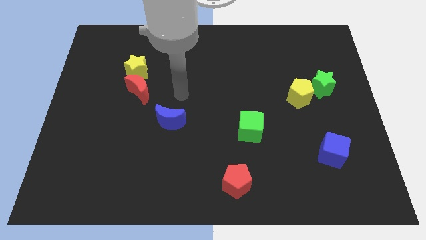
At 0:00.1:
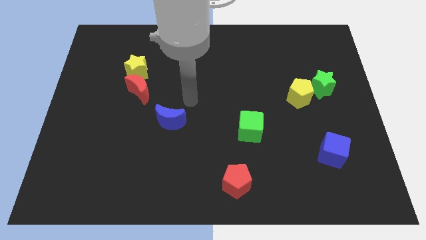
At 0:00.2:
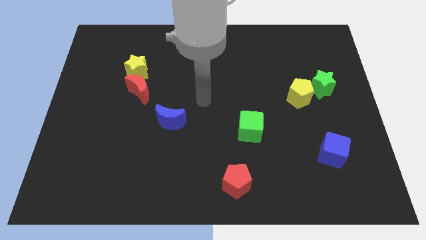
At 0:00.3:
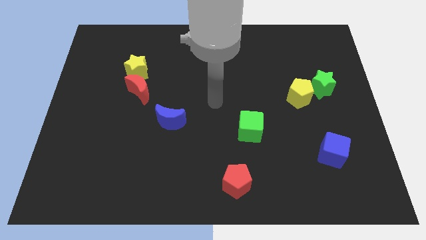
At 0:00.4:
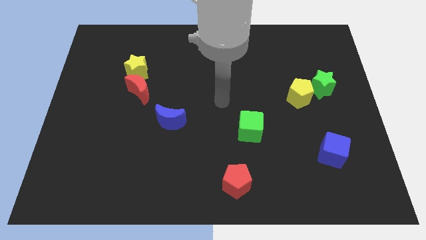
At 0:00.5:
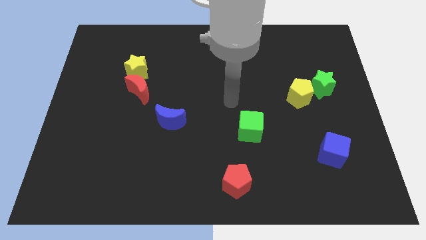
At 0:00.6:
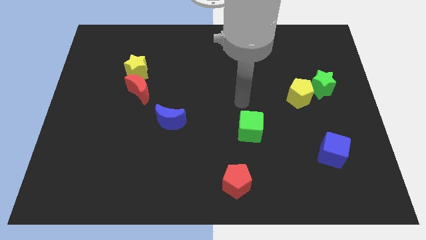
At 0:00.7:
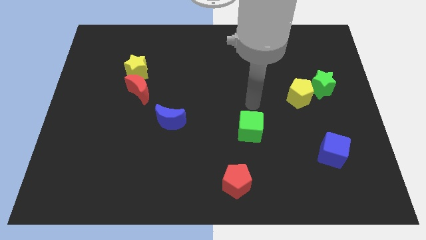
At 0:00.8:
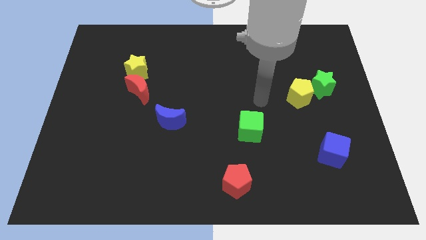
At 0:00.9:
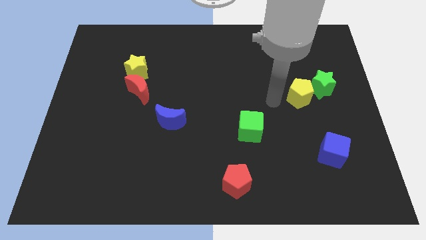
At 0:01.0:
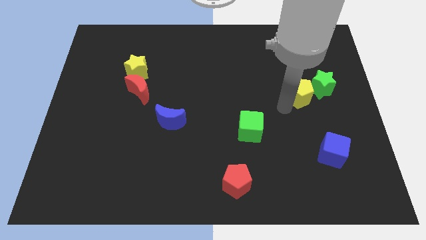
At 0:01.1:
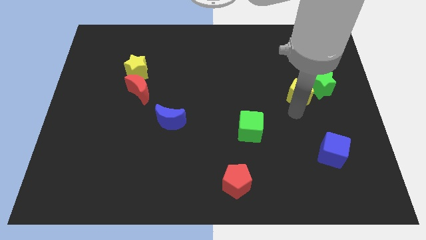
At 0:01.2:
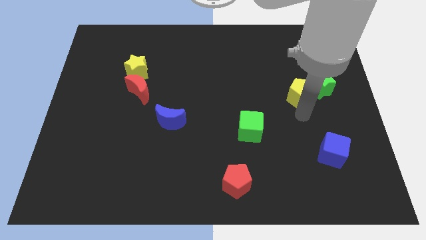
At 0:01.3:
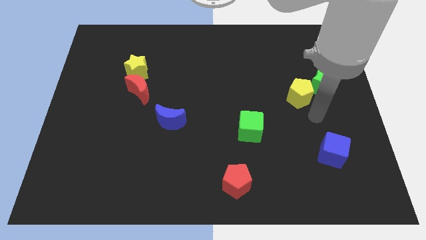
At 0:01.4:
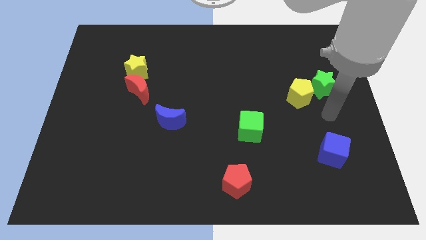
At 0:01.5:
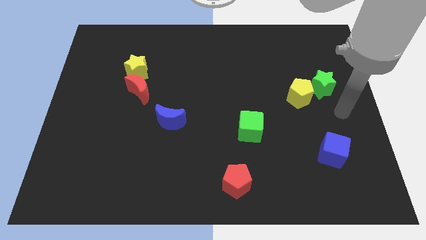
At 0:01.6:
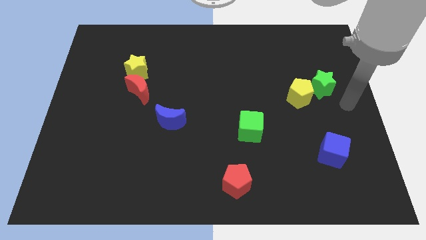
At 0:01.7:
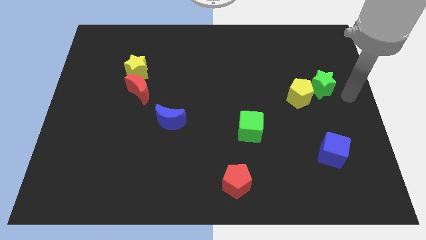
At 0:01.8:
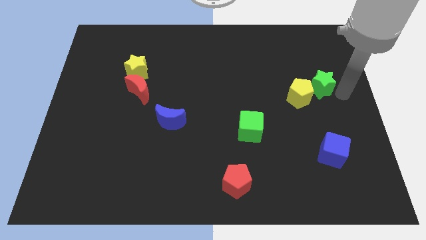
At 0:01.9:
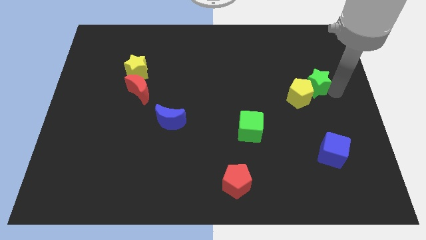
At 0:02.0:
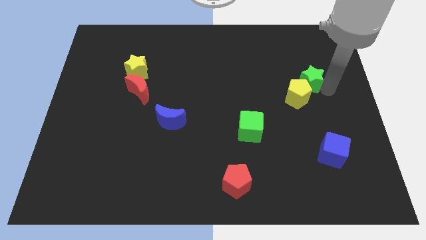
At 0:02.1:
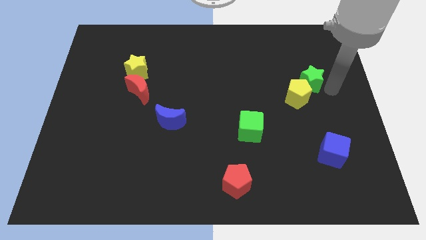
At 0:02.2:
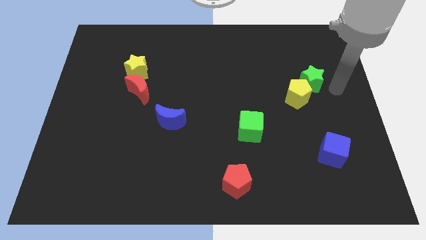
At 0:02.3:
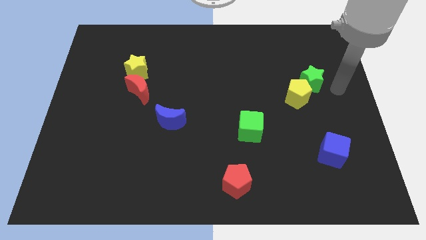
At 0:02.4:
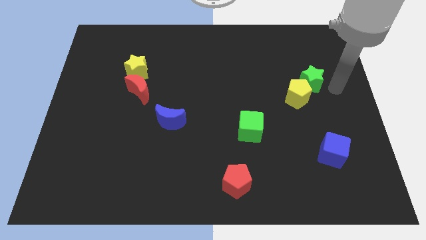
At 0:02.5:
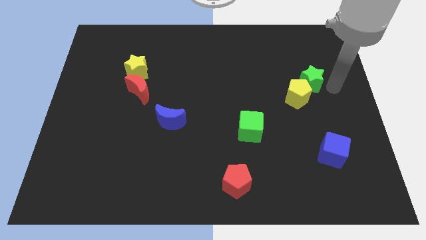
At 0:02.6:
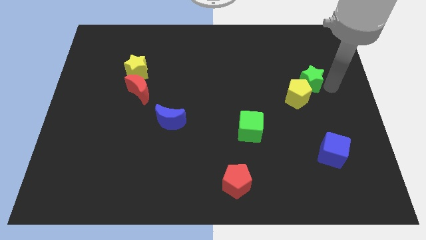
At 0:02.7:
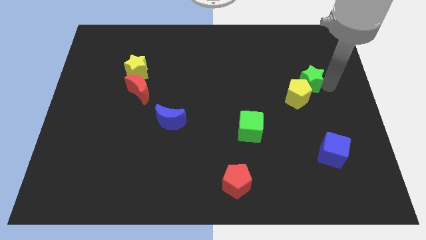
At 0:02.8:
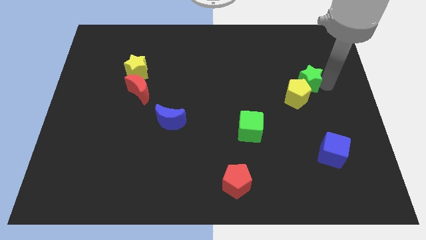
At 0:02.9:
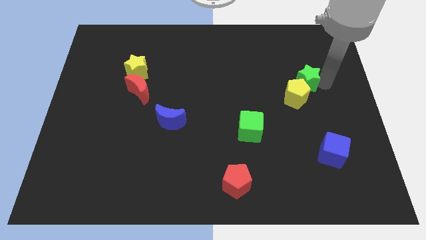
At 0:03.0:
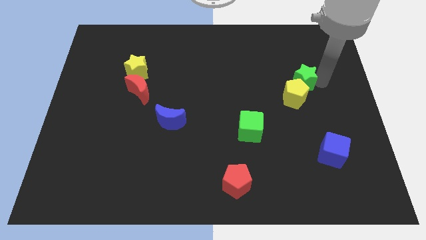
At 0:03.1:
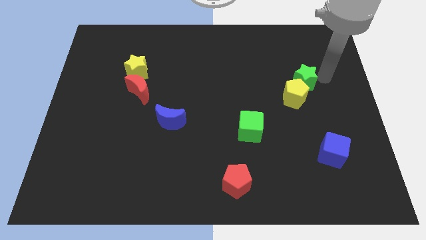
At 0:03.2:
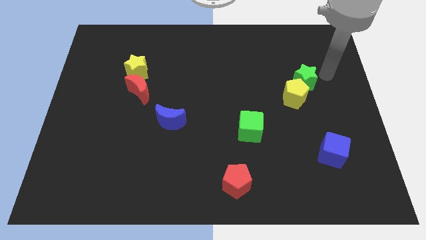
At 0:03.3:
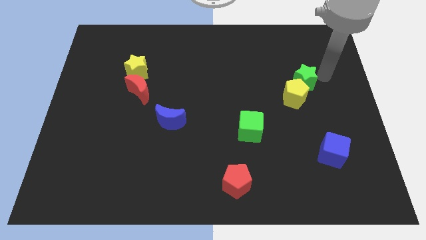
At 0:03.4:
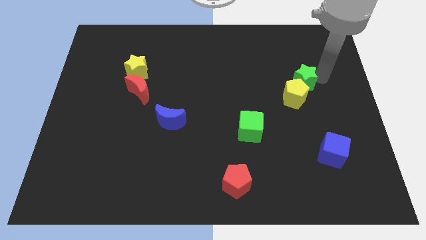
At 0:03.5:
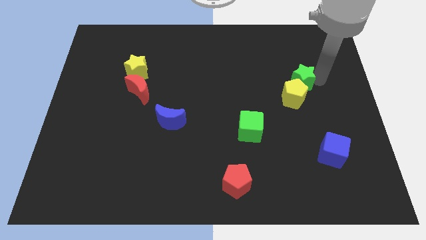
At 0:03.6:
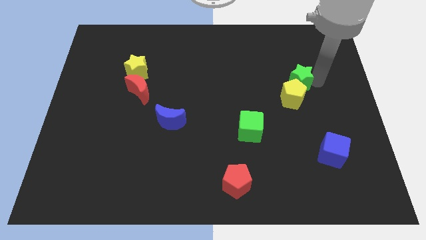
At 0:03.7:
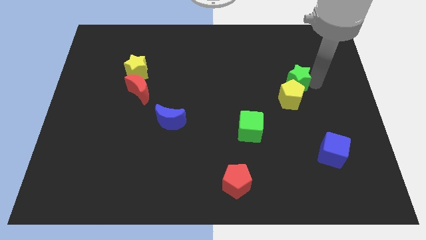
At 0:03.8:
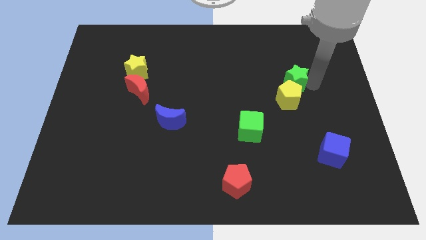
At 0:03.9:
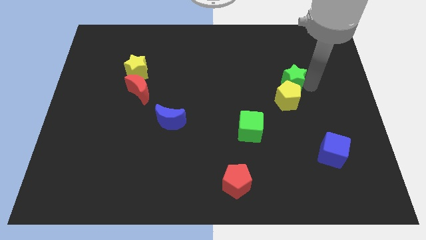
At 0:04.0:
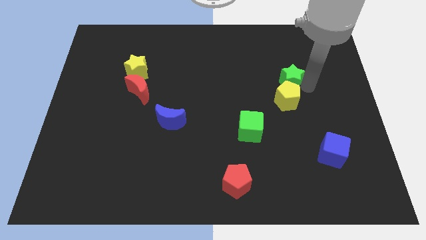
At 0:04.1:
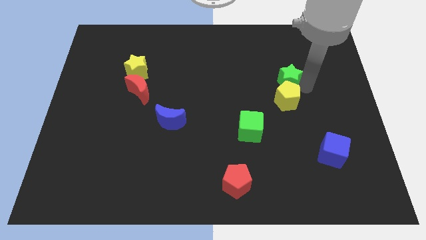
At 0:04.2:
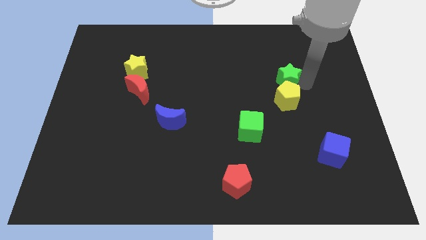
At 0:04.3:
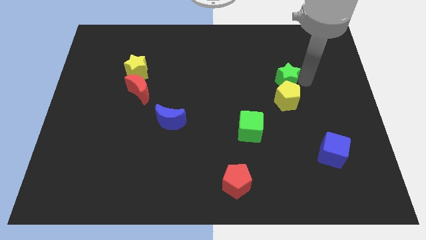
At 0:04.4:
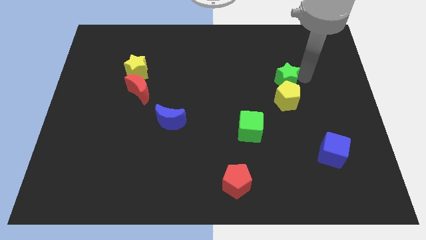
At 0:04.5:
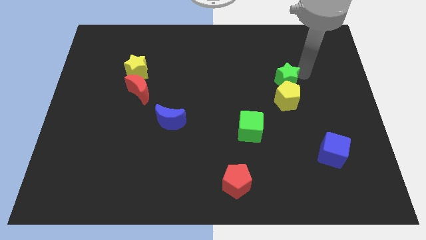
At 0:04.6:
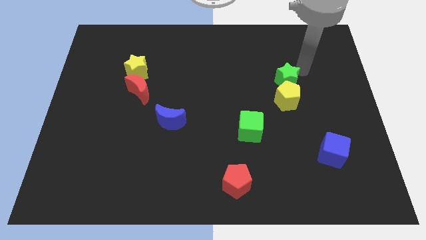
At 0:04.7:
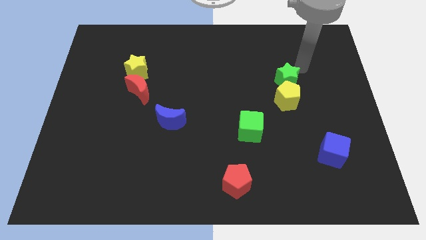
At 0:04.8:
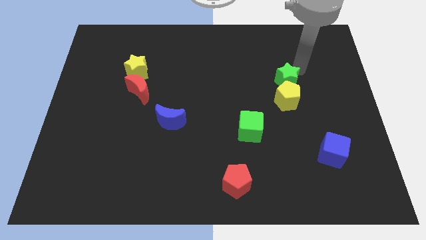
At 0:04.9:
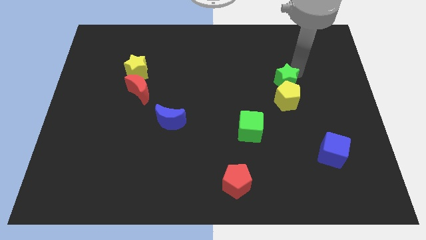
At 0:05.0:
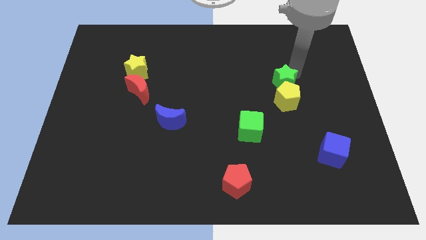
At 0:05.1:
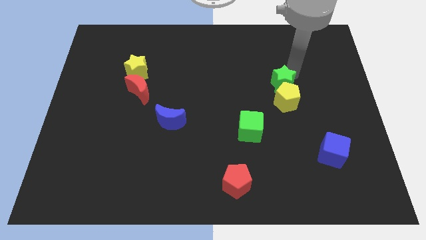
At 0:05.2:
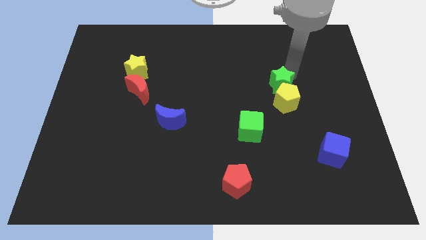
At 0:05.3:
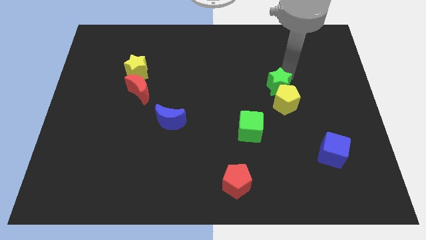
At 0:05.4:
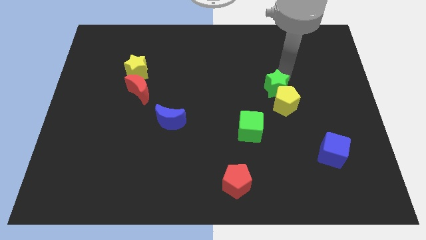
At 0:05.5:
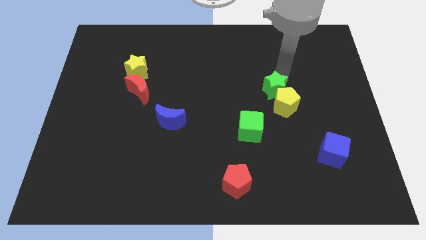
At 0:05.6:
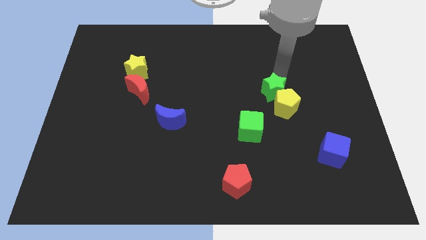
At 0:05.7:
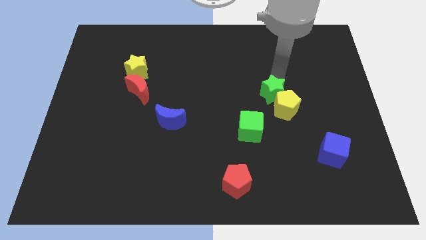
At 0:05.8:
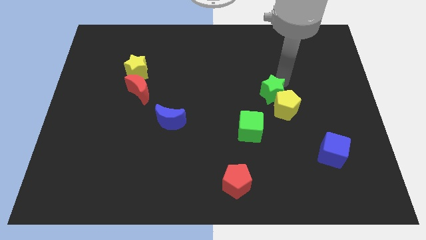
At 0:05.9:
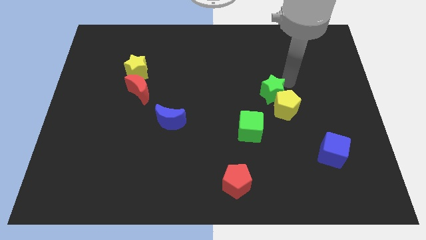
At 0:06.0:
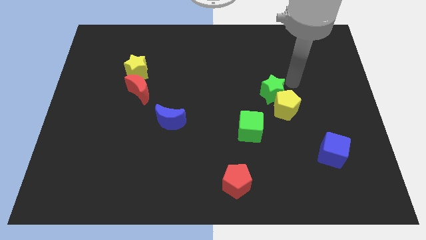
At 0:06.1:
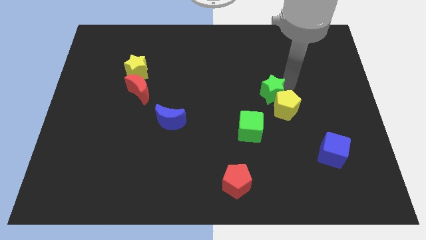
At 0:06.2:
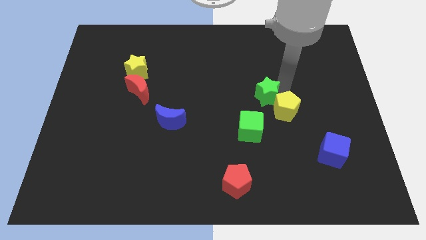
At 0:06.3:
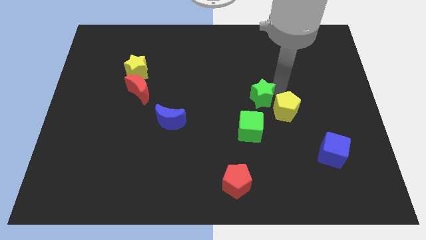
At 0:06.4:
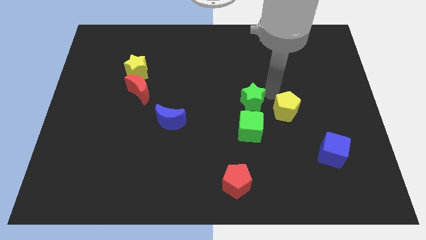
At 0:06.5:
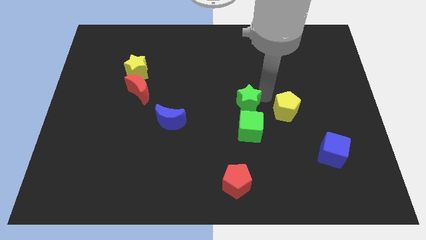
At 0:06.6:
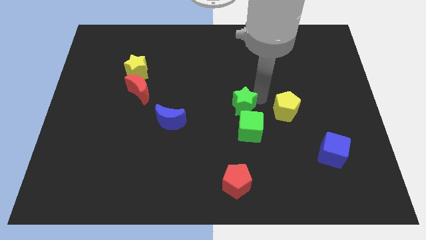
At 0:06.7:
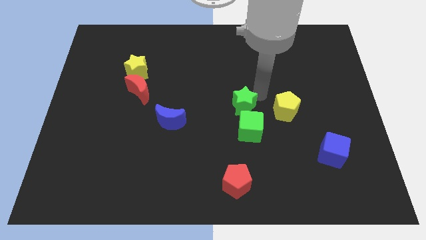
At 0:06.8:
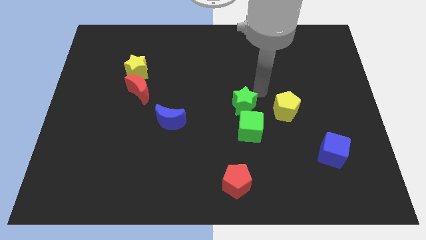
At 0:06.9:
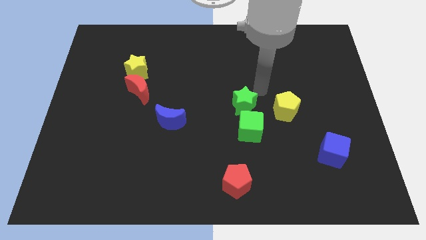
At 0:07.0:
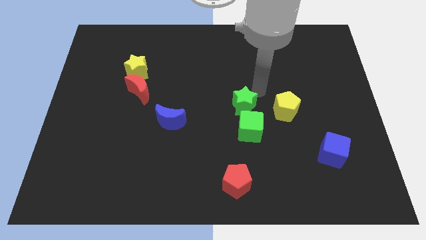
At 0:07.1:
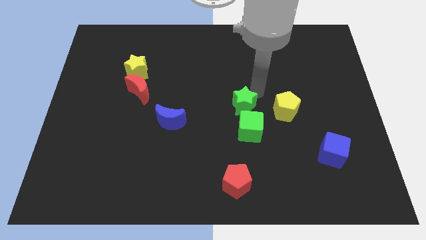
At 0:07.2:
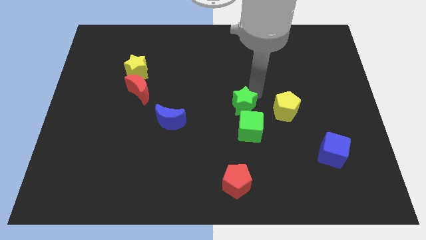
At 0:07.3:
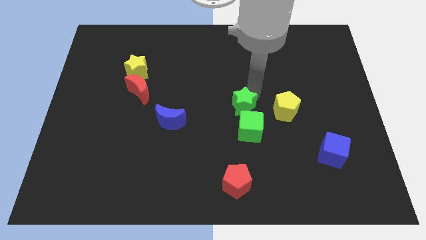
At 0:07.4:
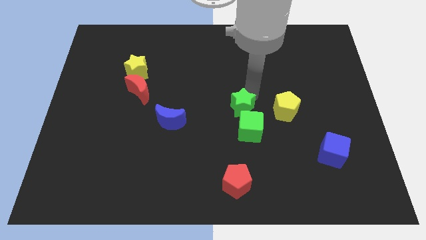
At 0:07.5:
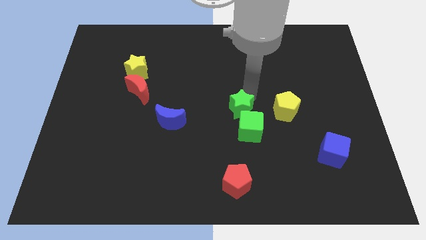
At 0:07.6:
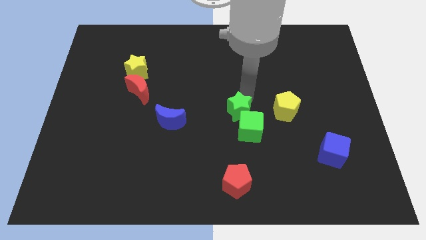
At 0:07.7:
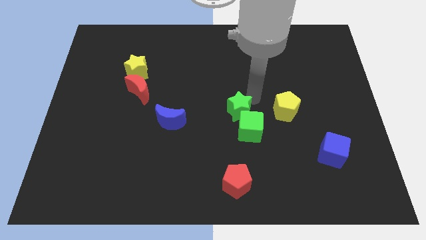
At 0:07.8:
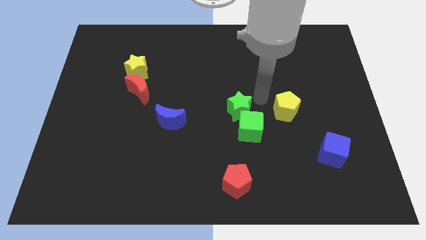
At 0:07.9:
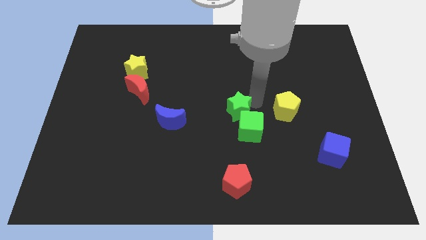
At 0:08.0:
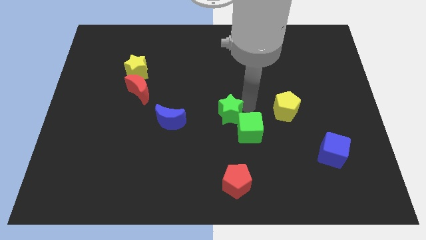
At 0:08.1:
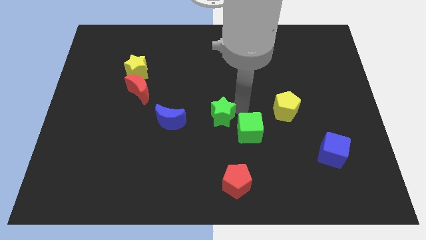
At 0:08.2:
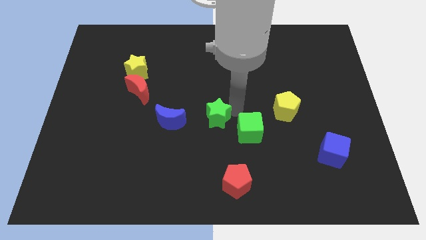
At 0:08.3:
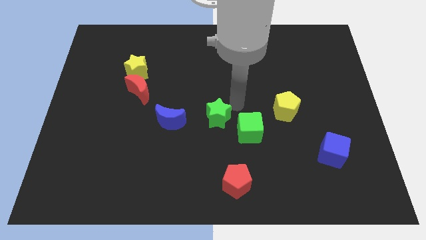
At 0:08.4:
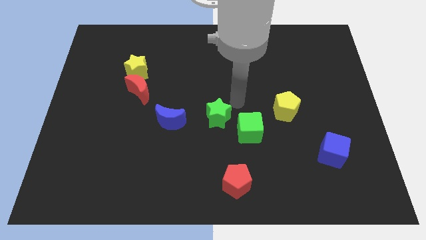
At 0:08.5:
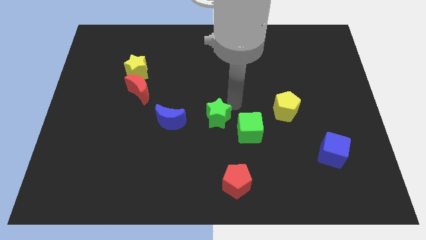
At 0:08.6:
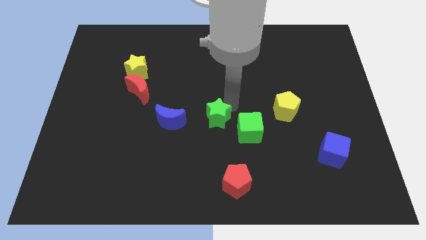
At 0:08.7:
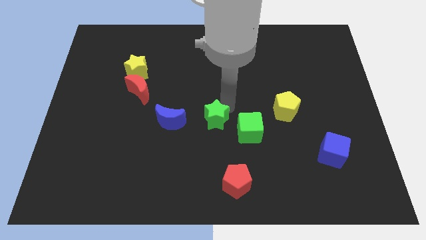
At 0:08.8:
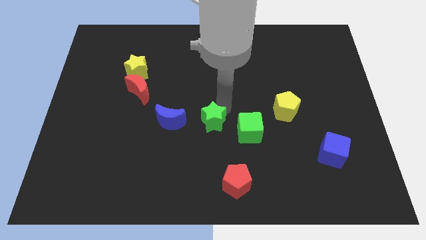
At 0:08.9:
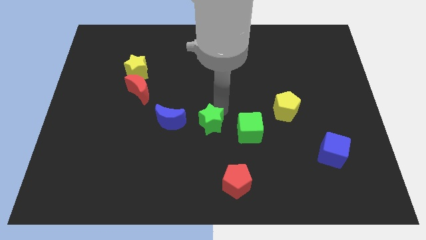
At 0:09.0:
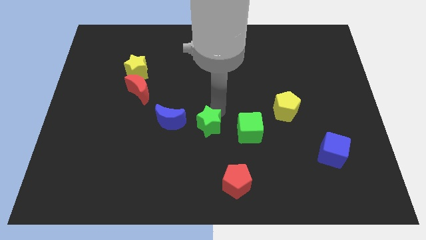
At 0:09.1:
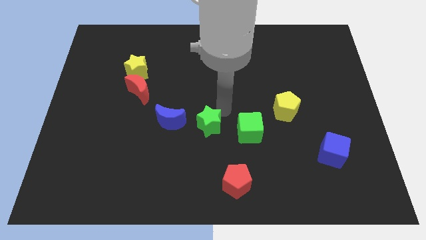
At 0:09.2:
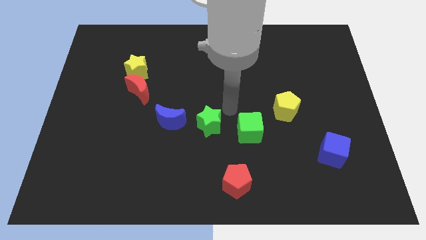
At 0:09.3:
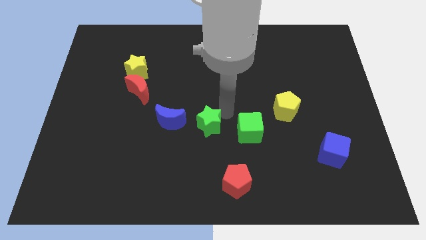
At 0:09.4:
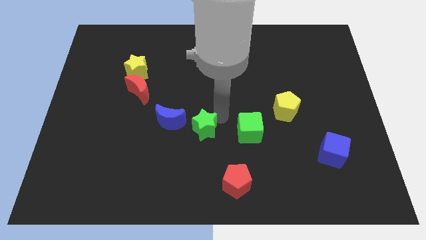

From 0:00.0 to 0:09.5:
put the green star to the bottom right side of the blue moon
